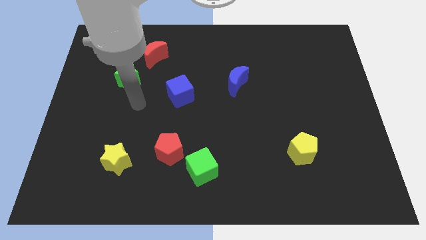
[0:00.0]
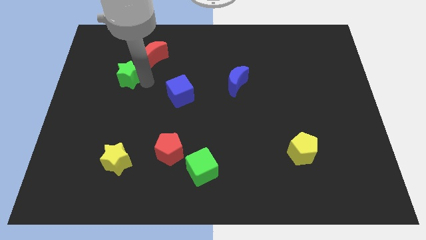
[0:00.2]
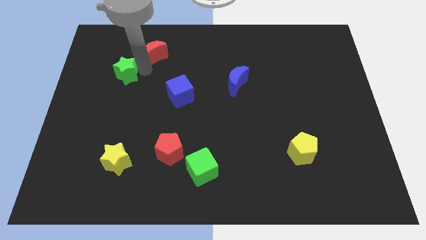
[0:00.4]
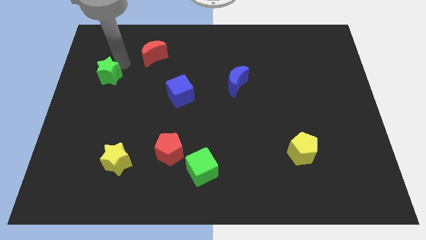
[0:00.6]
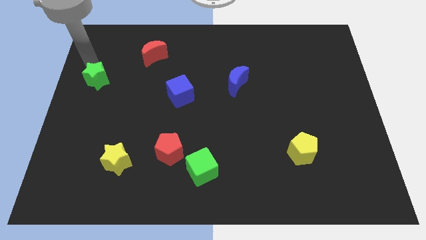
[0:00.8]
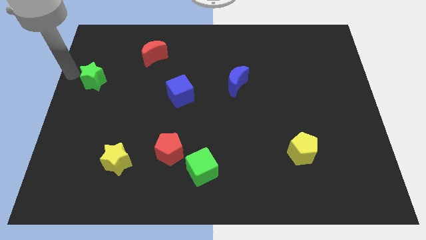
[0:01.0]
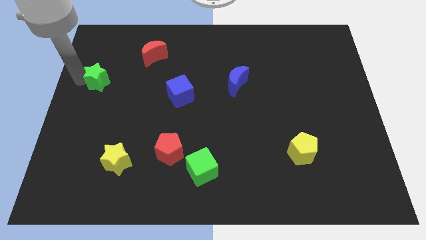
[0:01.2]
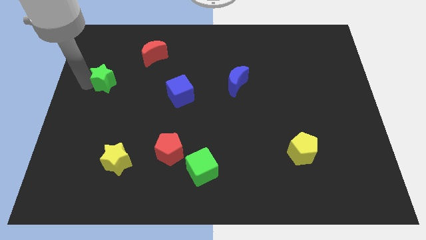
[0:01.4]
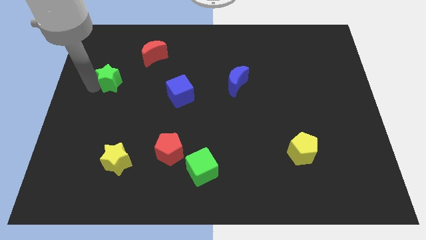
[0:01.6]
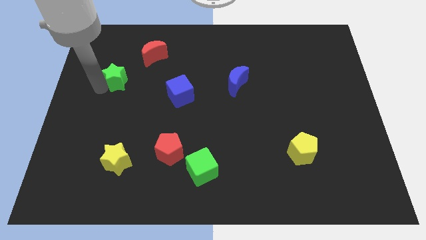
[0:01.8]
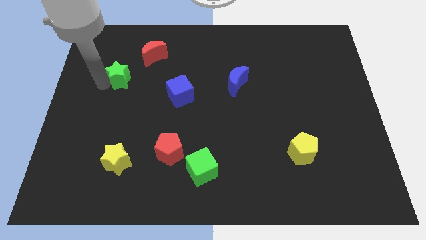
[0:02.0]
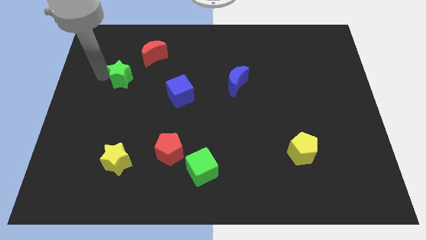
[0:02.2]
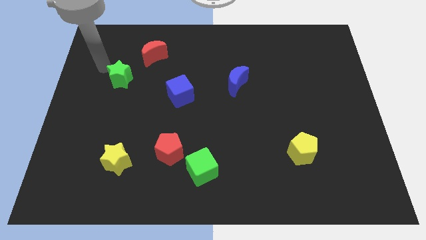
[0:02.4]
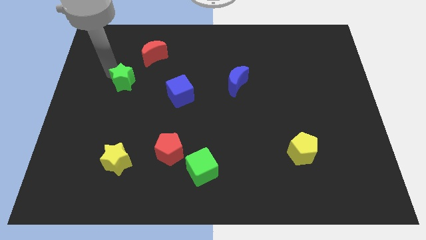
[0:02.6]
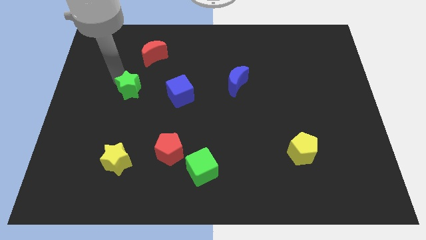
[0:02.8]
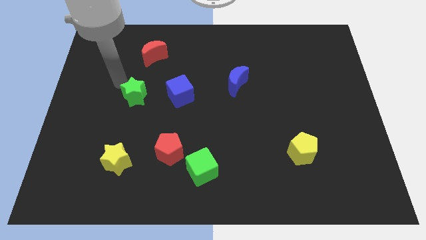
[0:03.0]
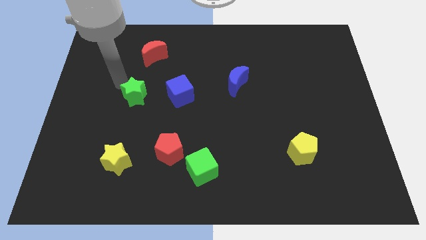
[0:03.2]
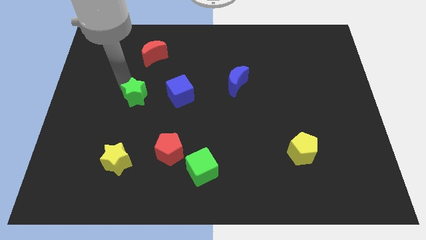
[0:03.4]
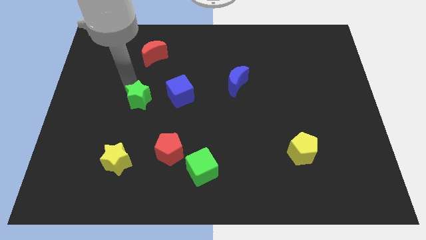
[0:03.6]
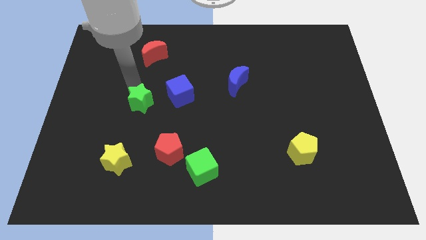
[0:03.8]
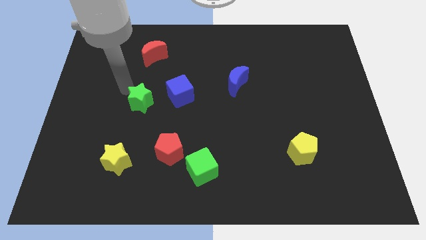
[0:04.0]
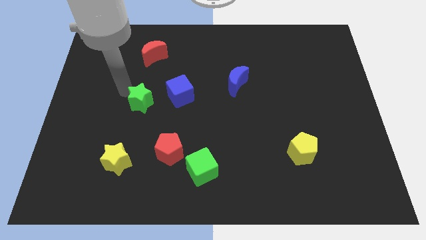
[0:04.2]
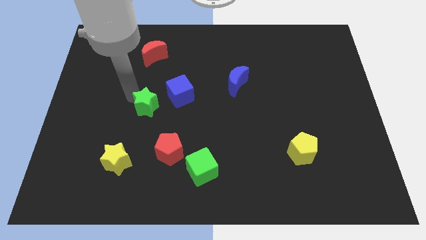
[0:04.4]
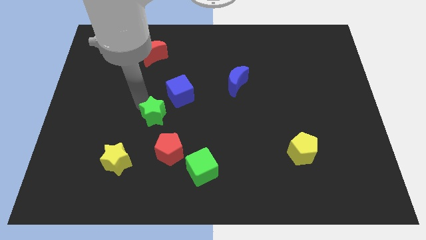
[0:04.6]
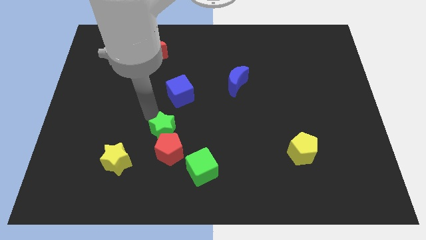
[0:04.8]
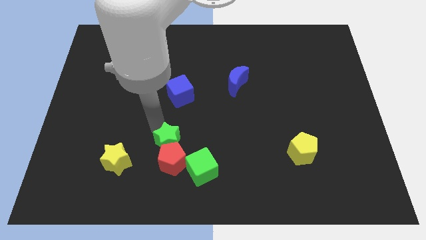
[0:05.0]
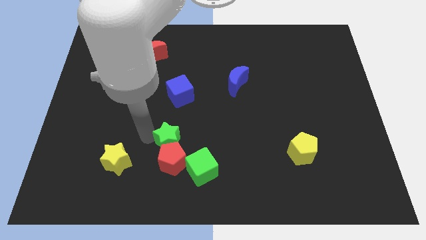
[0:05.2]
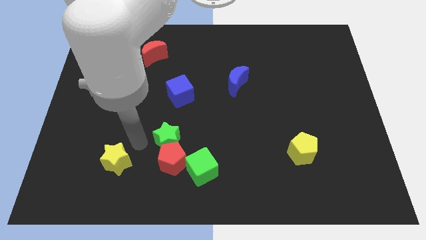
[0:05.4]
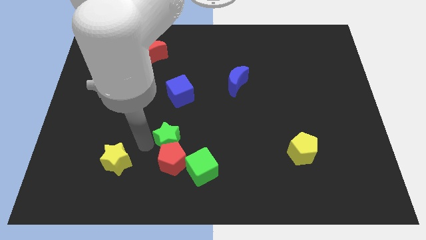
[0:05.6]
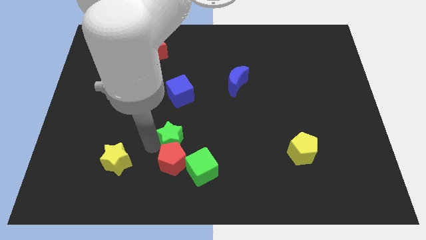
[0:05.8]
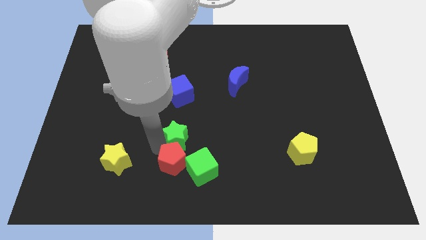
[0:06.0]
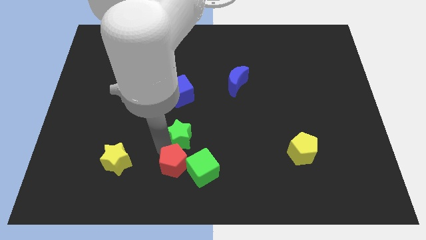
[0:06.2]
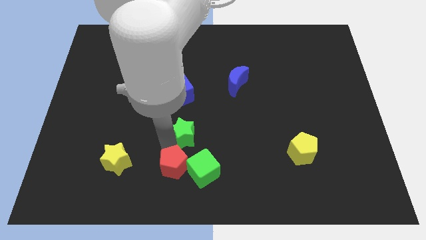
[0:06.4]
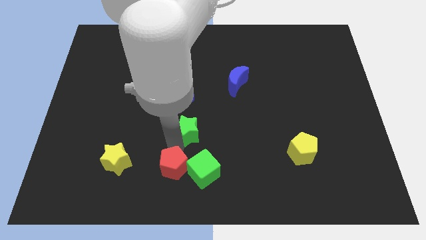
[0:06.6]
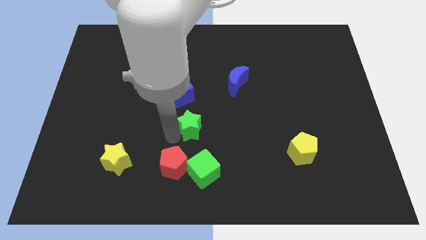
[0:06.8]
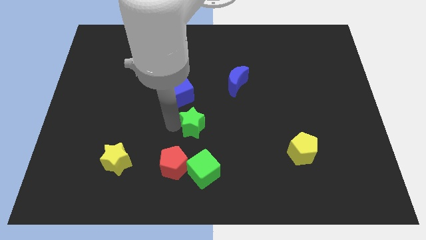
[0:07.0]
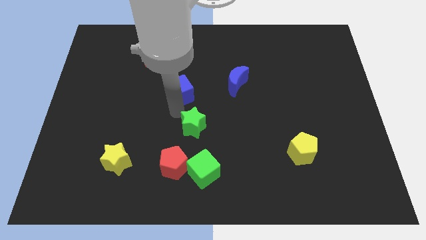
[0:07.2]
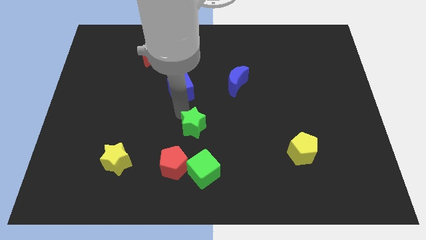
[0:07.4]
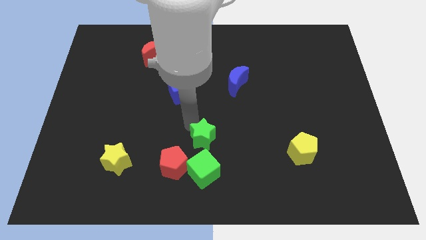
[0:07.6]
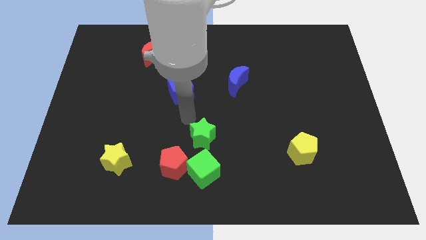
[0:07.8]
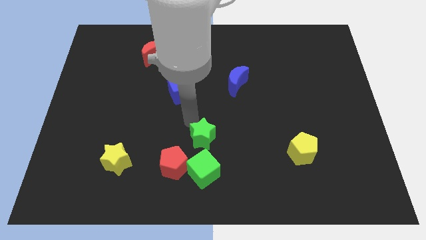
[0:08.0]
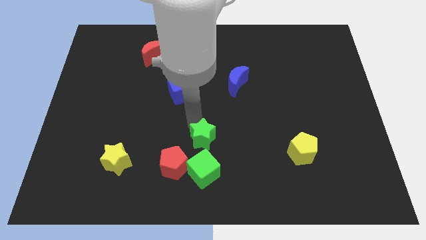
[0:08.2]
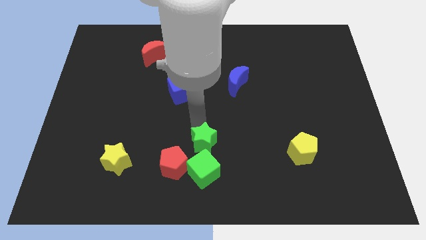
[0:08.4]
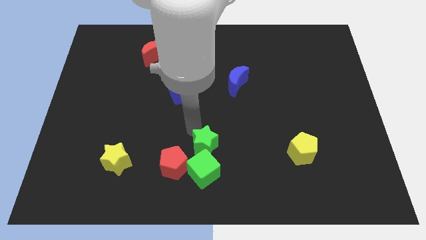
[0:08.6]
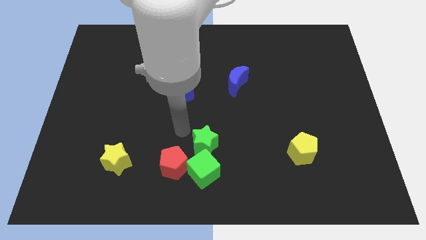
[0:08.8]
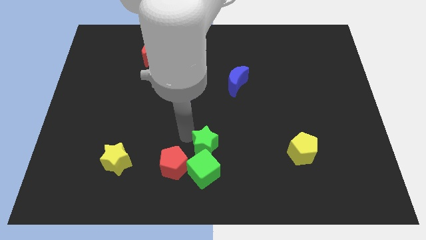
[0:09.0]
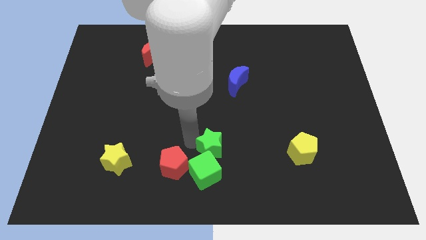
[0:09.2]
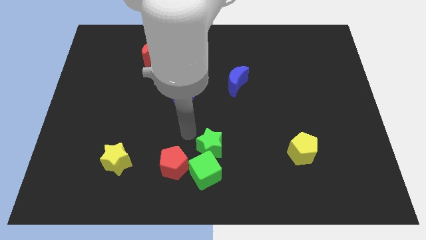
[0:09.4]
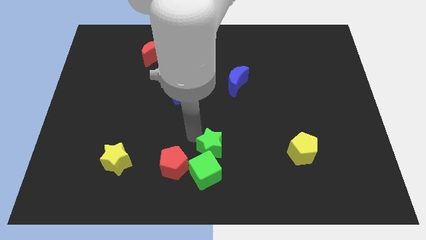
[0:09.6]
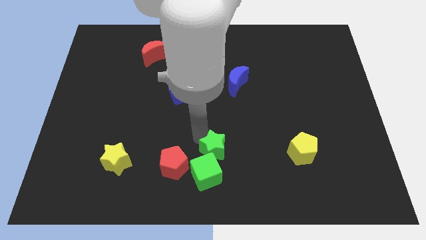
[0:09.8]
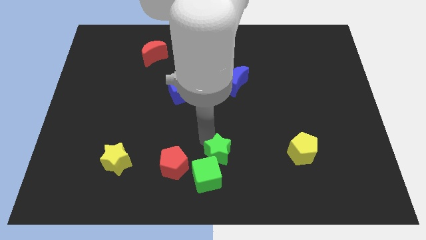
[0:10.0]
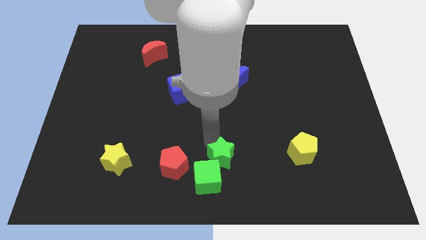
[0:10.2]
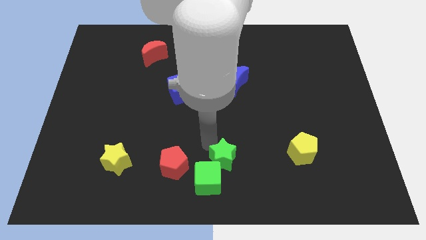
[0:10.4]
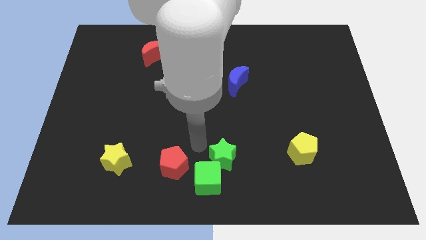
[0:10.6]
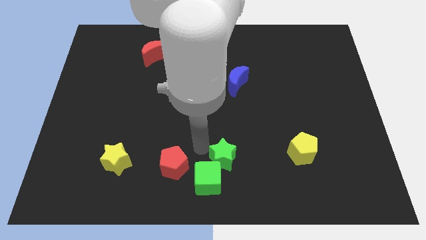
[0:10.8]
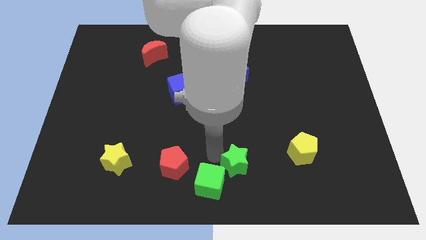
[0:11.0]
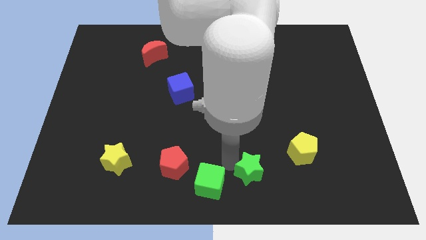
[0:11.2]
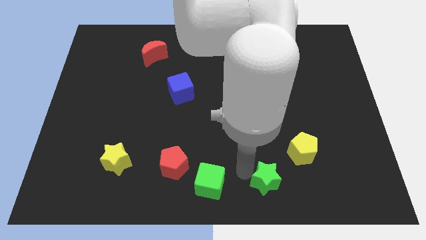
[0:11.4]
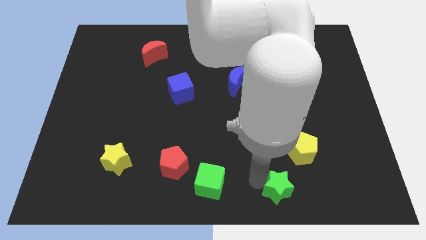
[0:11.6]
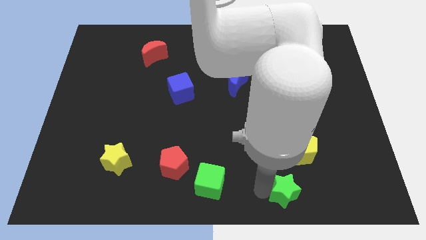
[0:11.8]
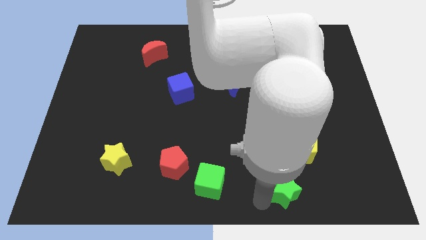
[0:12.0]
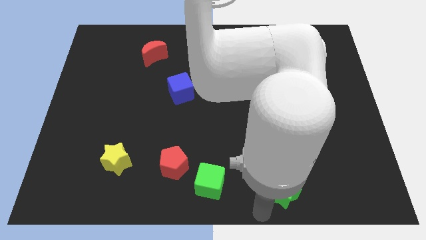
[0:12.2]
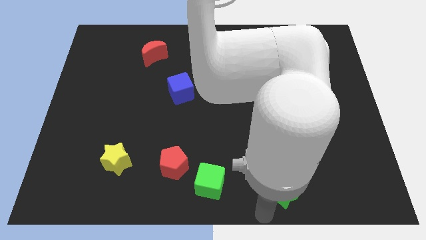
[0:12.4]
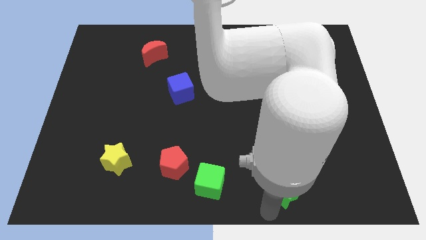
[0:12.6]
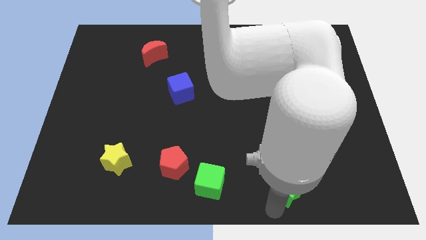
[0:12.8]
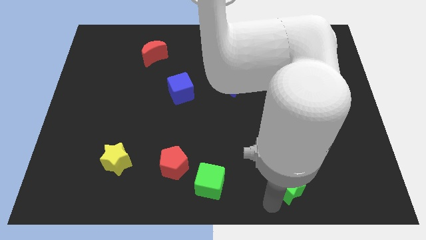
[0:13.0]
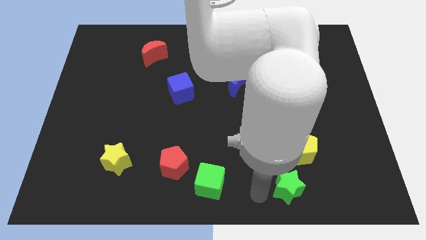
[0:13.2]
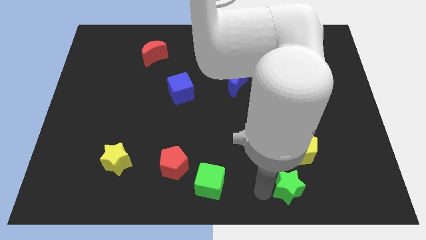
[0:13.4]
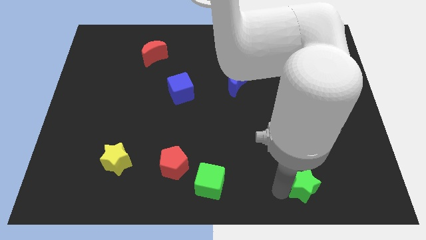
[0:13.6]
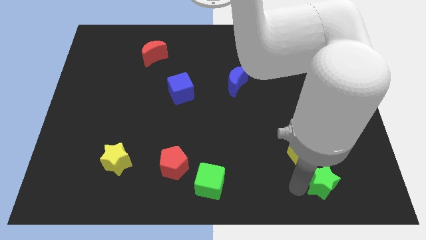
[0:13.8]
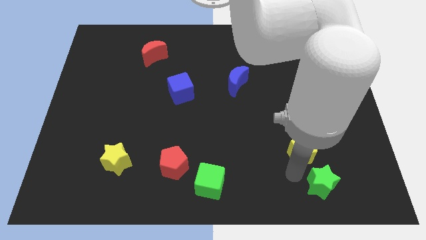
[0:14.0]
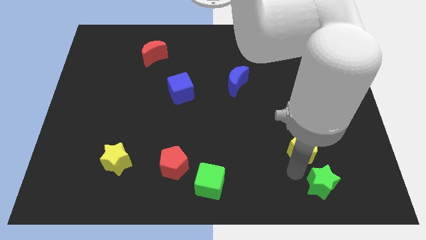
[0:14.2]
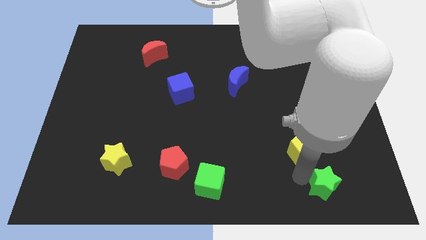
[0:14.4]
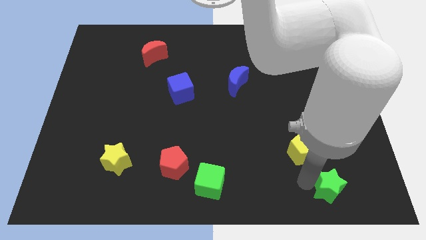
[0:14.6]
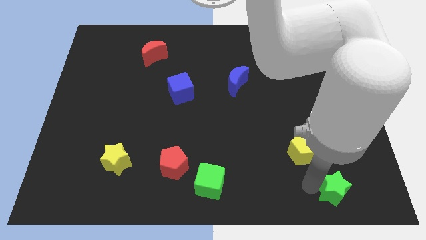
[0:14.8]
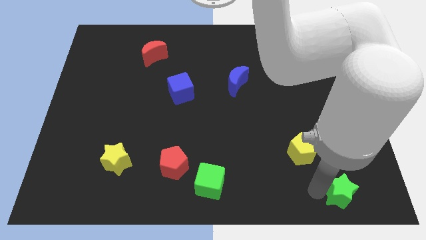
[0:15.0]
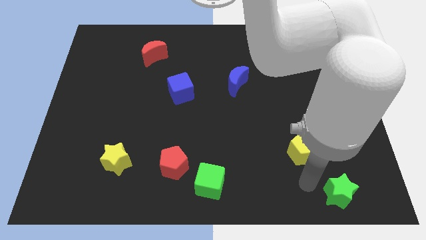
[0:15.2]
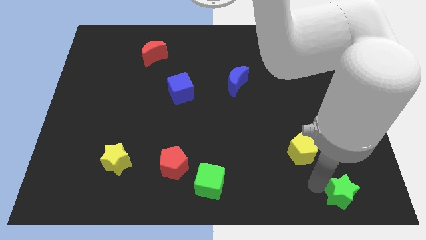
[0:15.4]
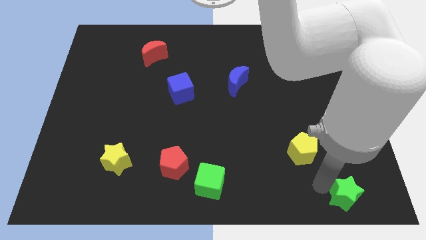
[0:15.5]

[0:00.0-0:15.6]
push the green star to the lower right corner
